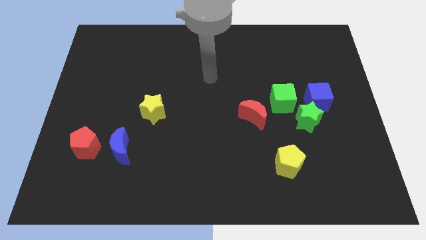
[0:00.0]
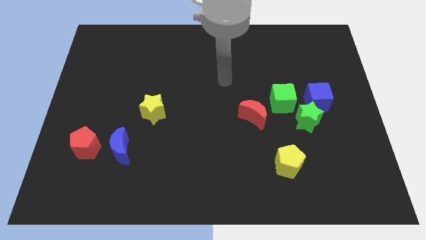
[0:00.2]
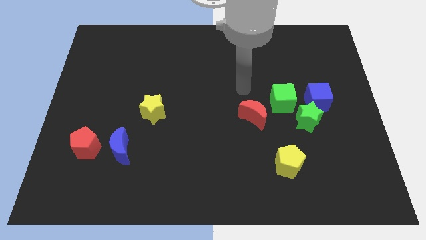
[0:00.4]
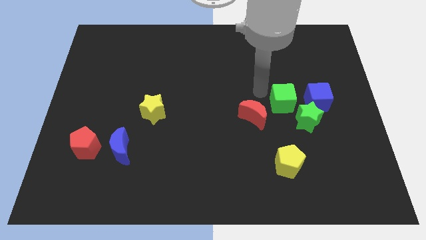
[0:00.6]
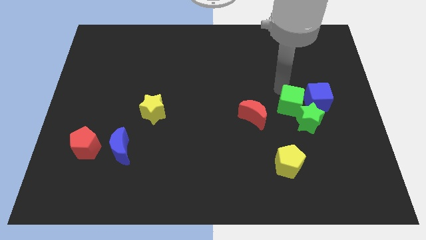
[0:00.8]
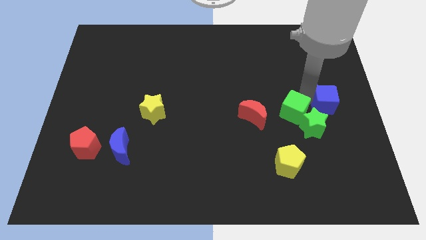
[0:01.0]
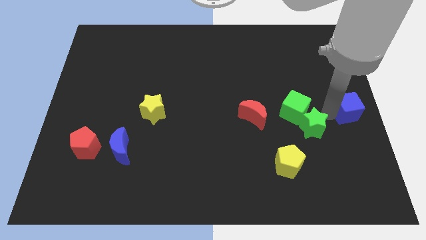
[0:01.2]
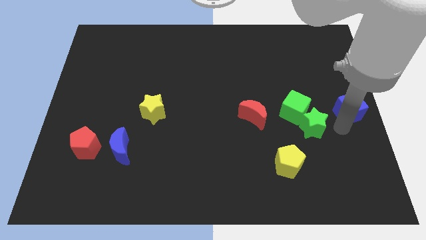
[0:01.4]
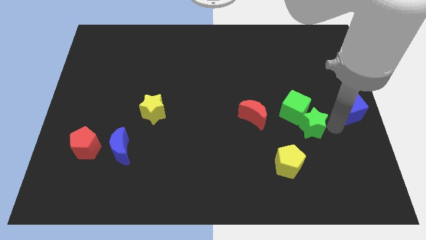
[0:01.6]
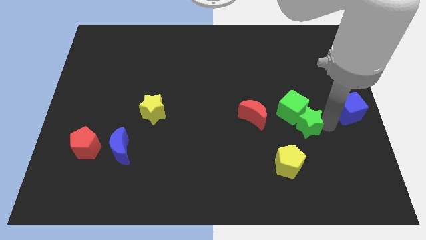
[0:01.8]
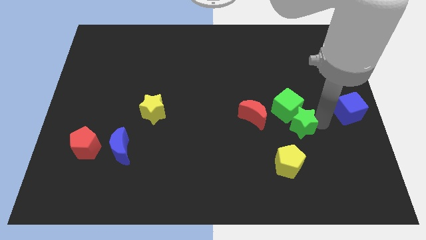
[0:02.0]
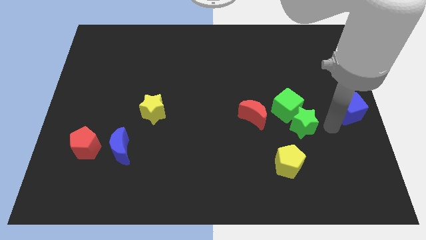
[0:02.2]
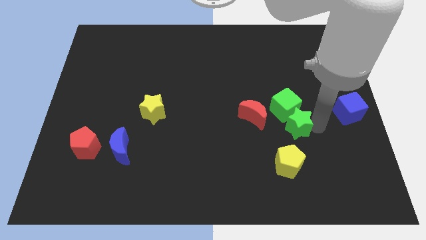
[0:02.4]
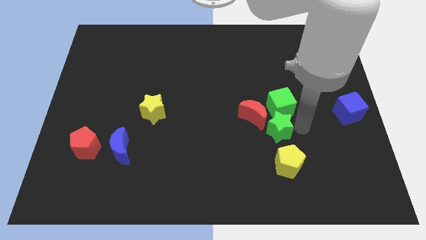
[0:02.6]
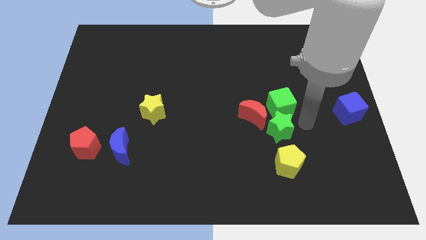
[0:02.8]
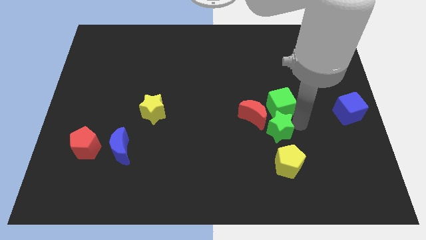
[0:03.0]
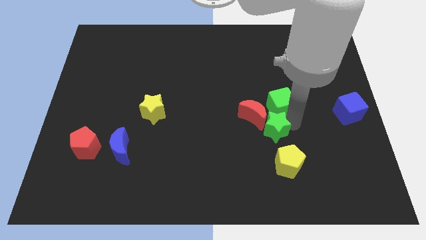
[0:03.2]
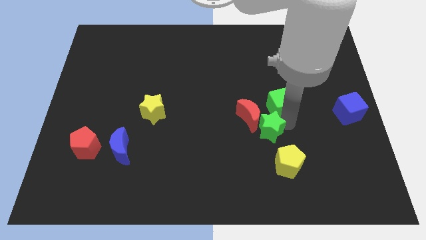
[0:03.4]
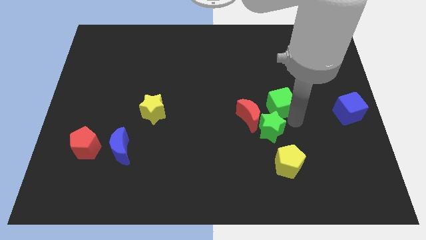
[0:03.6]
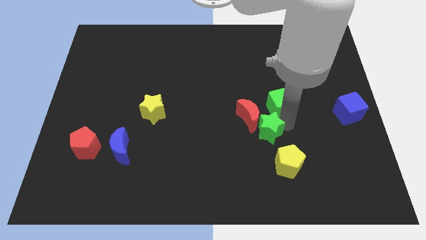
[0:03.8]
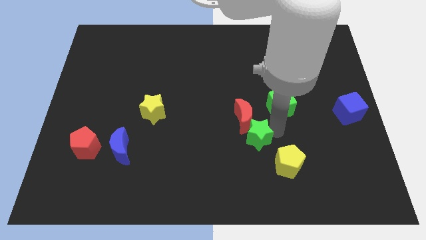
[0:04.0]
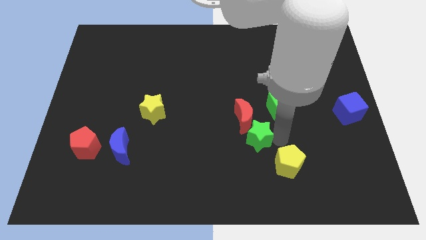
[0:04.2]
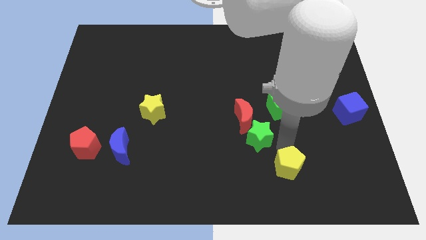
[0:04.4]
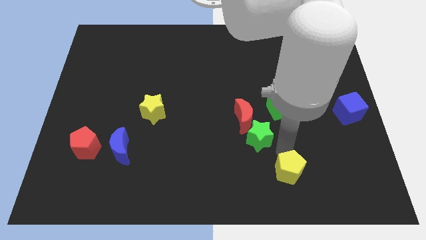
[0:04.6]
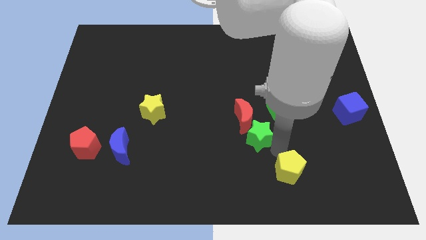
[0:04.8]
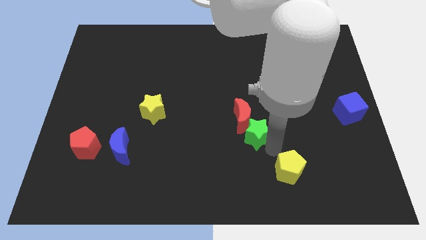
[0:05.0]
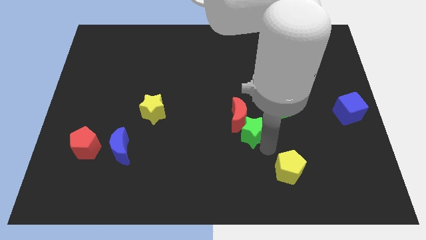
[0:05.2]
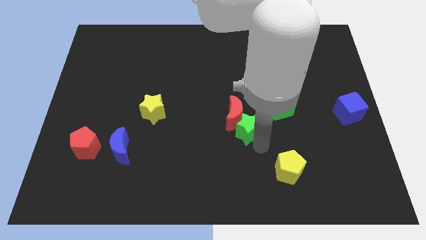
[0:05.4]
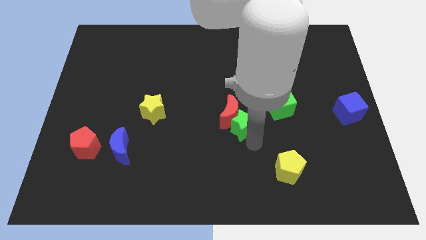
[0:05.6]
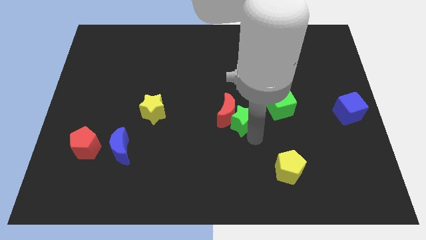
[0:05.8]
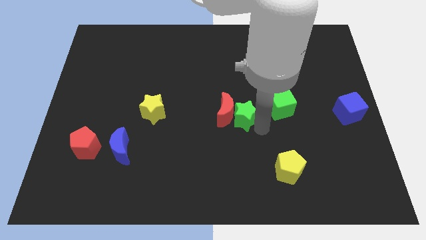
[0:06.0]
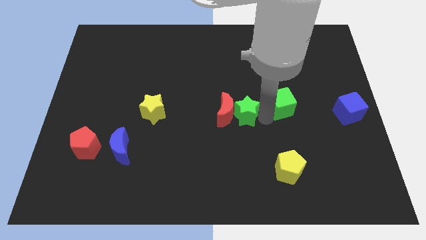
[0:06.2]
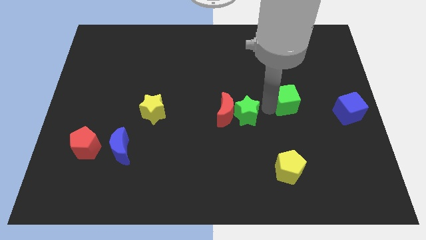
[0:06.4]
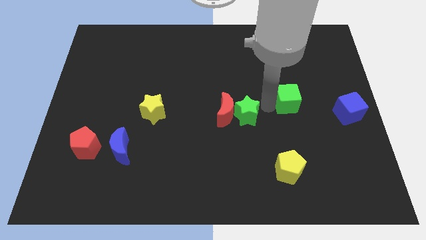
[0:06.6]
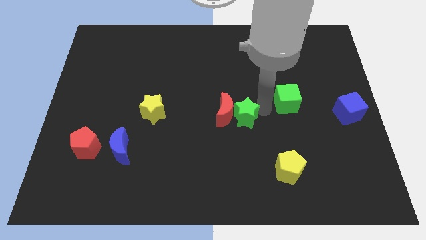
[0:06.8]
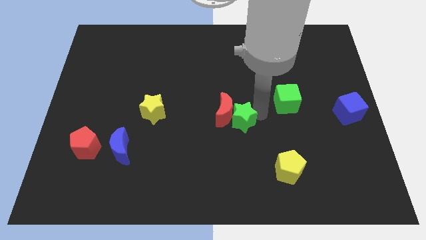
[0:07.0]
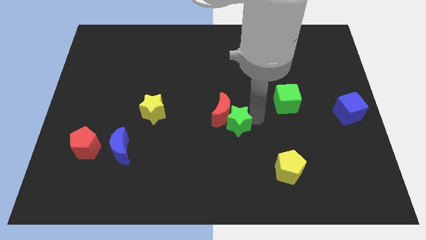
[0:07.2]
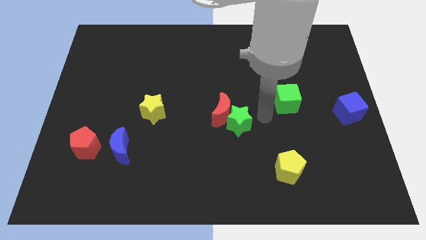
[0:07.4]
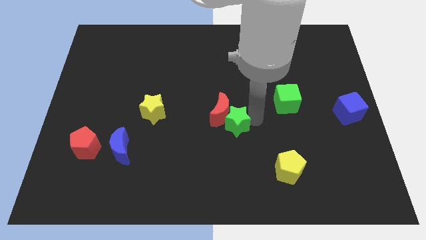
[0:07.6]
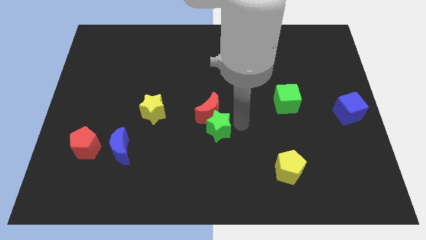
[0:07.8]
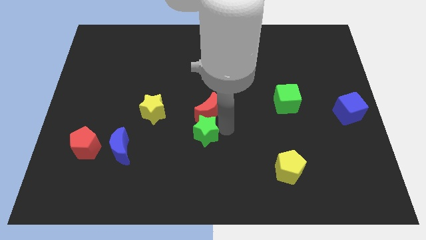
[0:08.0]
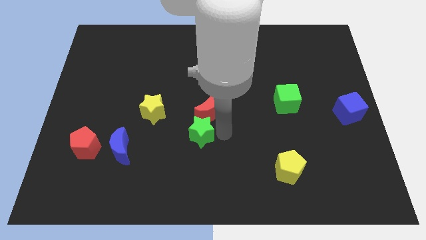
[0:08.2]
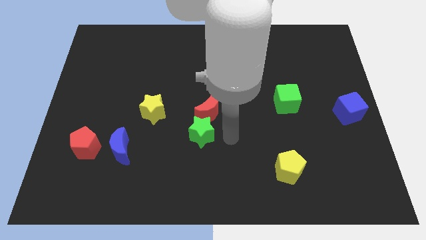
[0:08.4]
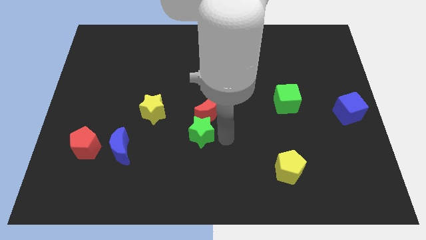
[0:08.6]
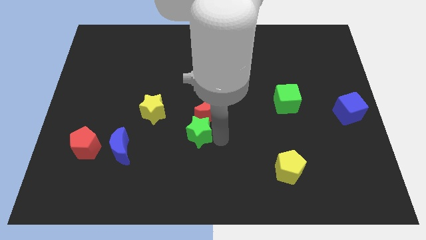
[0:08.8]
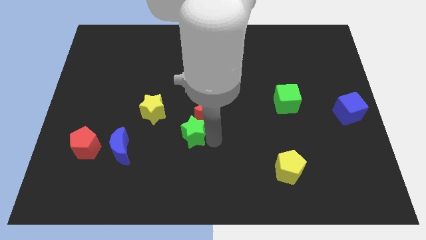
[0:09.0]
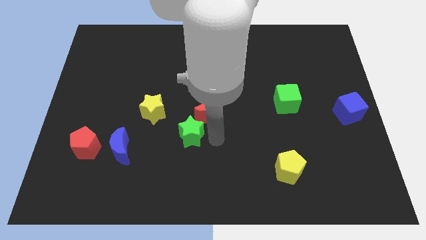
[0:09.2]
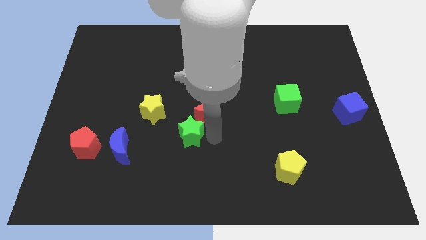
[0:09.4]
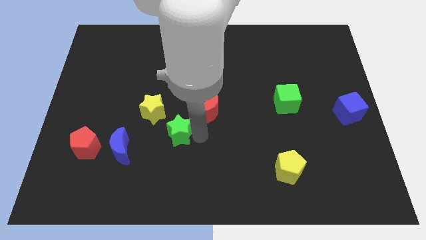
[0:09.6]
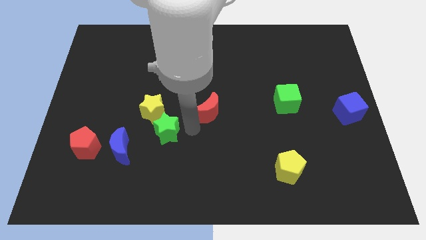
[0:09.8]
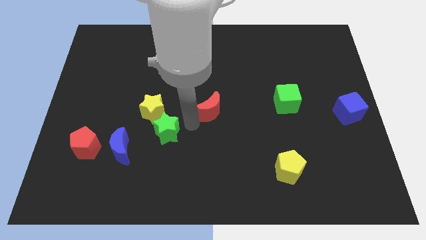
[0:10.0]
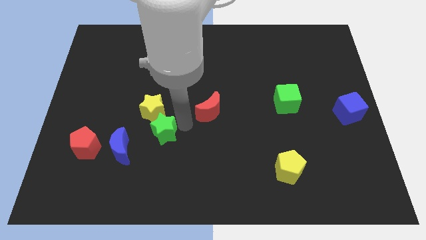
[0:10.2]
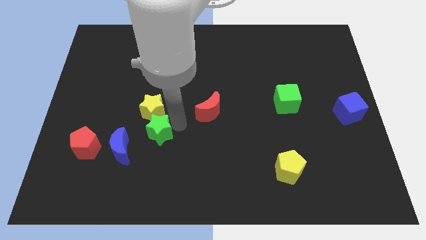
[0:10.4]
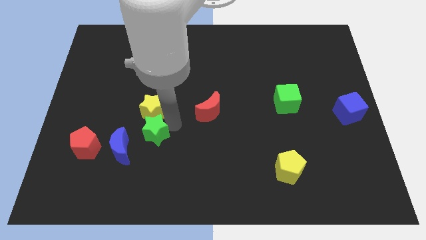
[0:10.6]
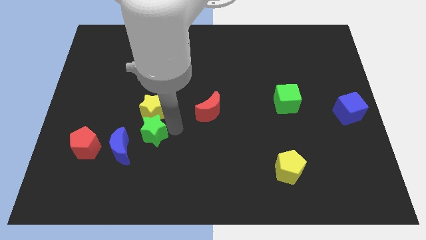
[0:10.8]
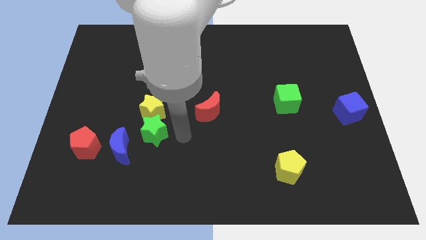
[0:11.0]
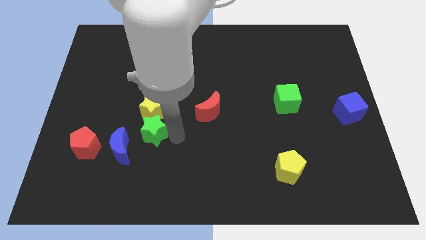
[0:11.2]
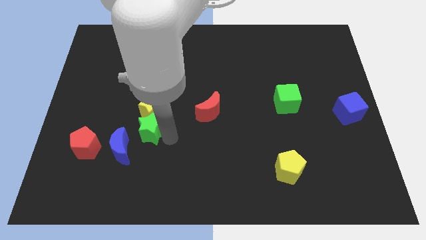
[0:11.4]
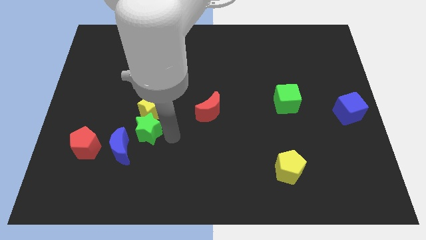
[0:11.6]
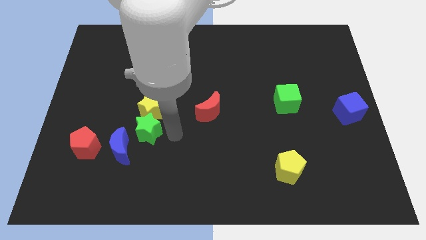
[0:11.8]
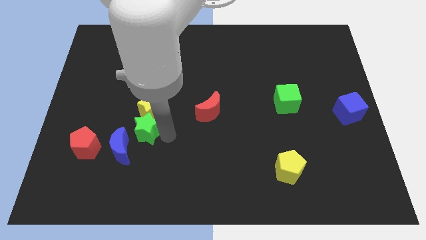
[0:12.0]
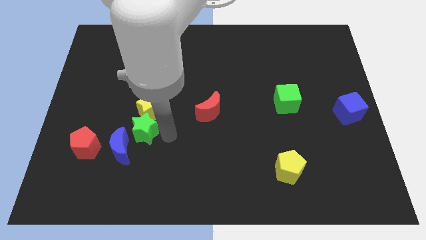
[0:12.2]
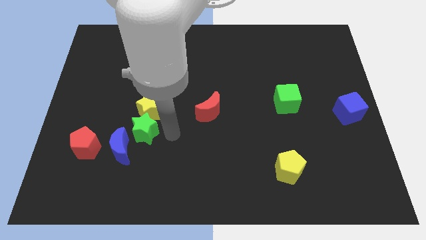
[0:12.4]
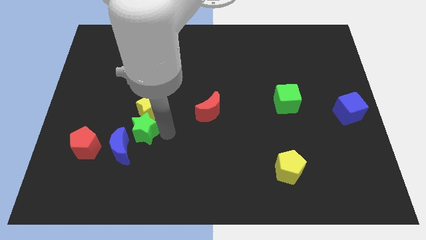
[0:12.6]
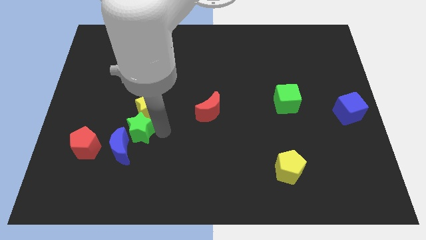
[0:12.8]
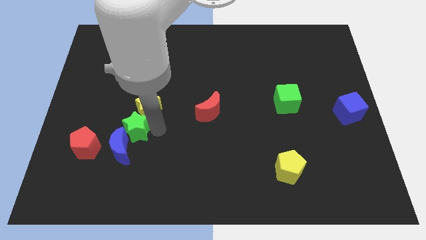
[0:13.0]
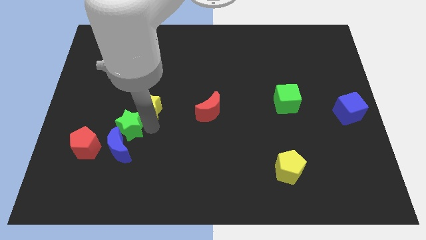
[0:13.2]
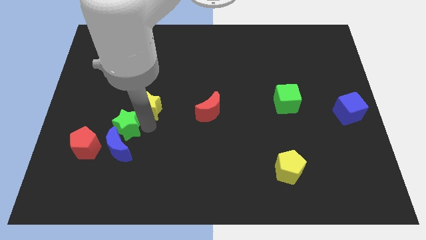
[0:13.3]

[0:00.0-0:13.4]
push the green star to the top left of the blue moon
